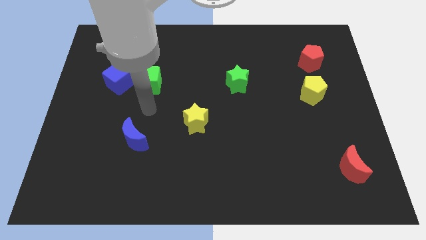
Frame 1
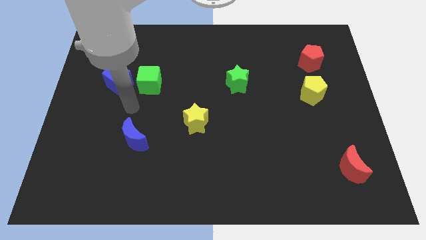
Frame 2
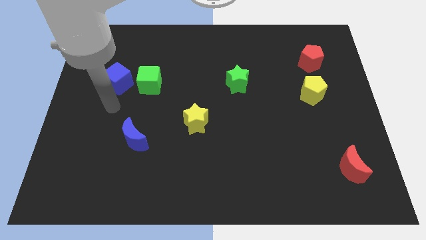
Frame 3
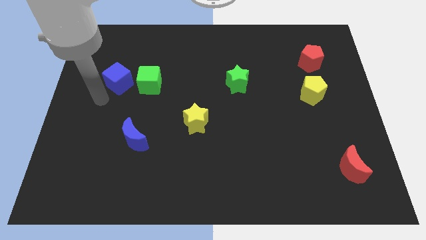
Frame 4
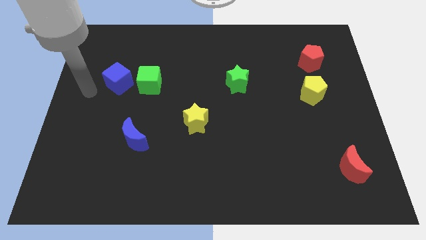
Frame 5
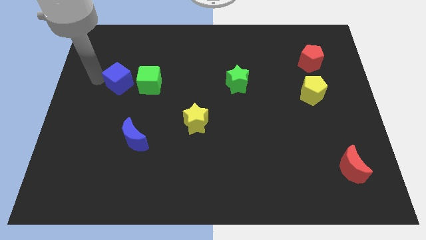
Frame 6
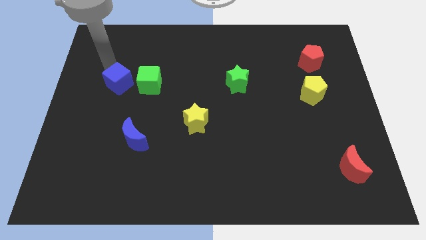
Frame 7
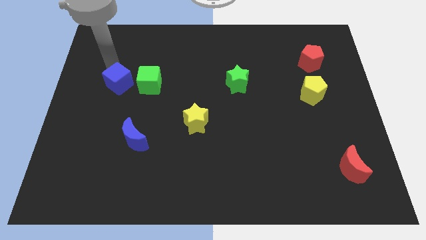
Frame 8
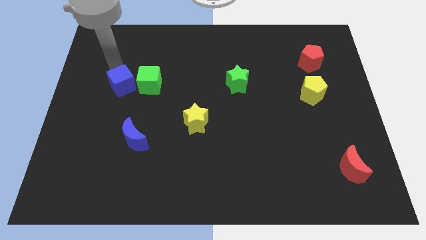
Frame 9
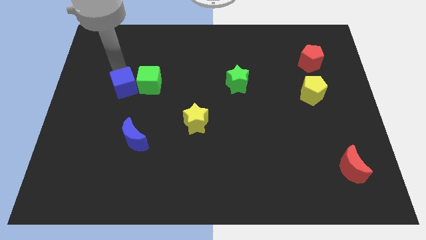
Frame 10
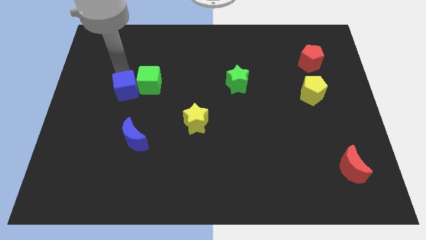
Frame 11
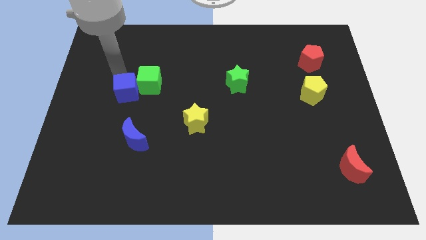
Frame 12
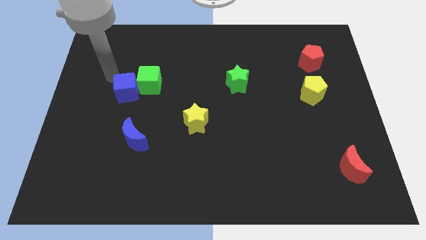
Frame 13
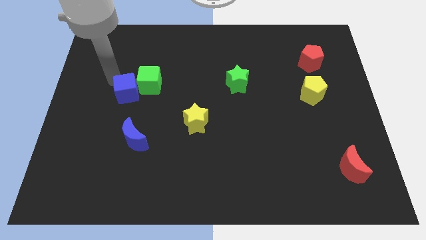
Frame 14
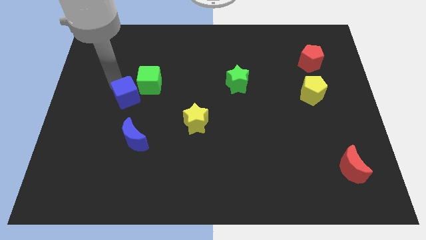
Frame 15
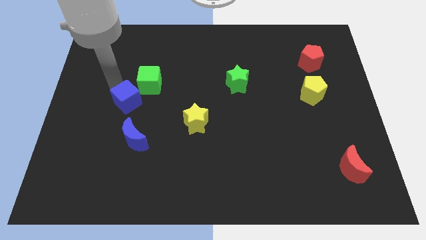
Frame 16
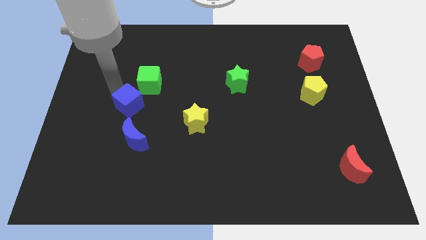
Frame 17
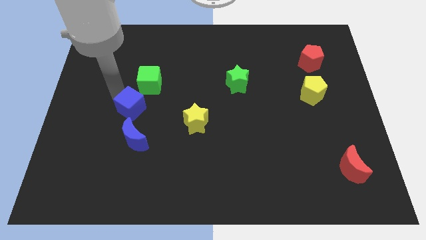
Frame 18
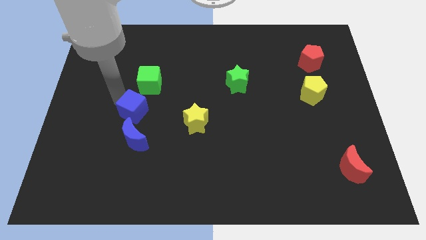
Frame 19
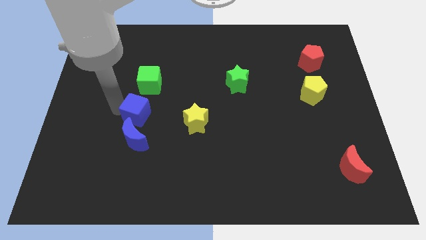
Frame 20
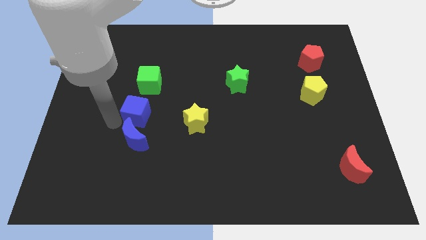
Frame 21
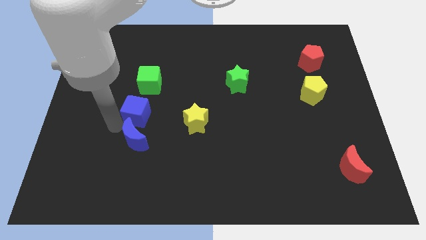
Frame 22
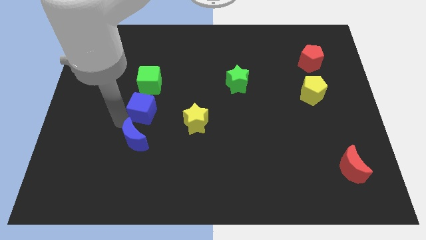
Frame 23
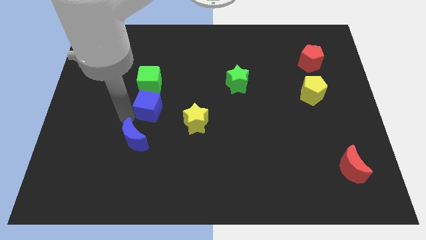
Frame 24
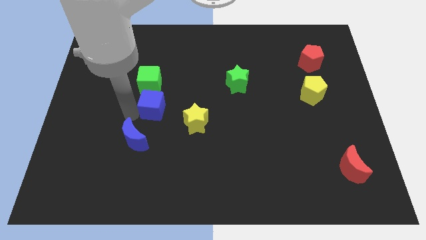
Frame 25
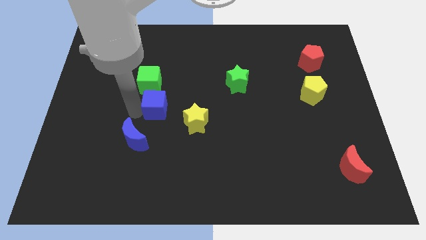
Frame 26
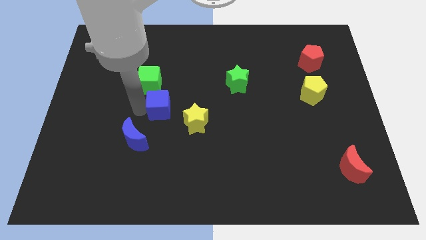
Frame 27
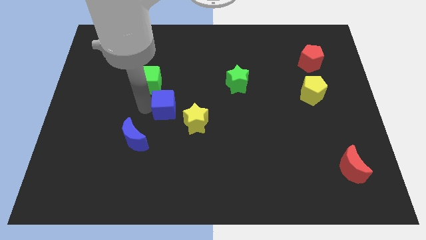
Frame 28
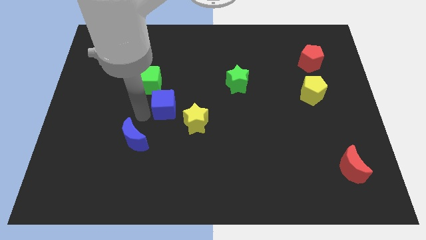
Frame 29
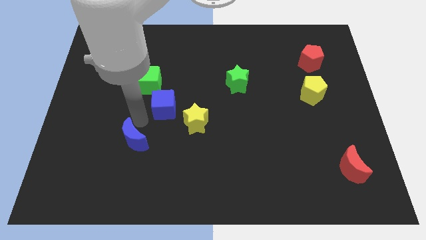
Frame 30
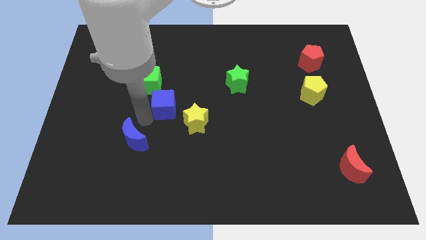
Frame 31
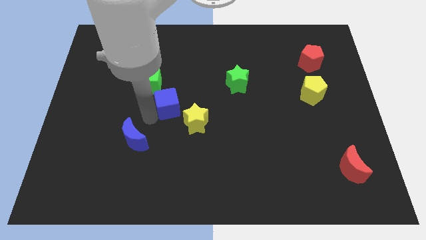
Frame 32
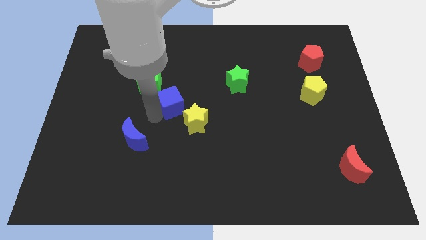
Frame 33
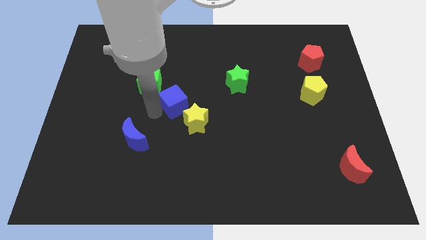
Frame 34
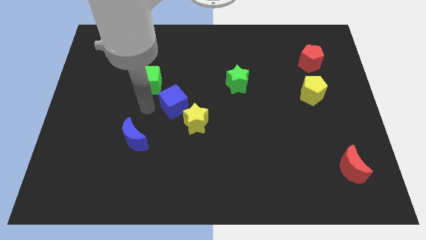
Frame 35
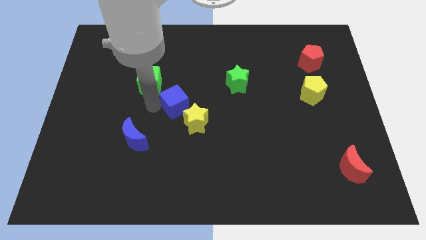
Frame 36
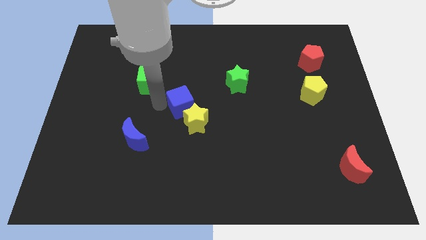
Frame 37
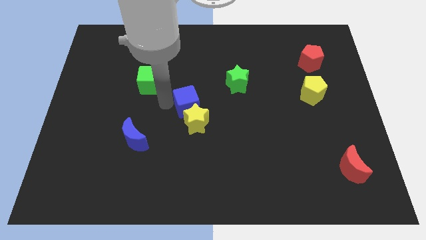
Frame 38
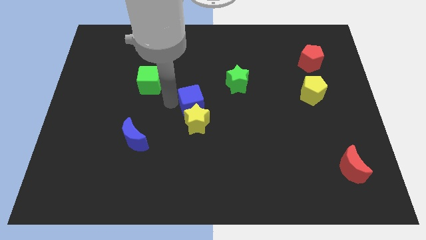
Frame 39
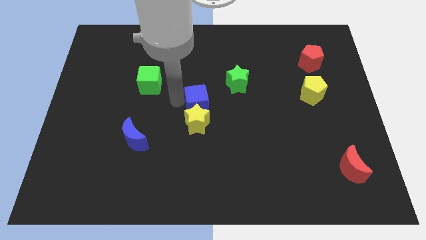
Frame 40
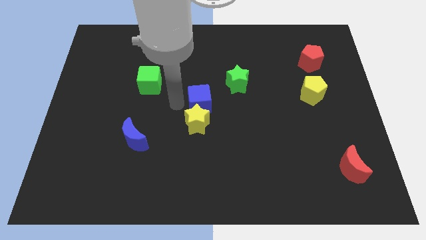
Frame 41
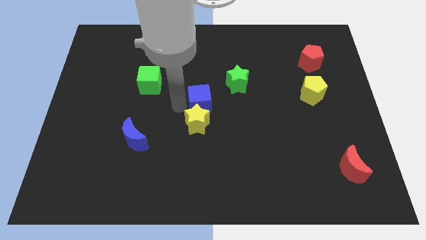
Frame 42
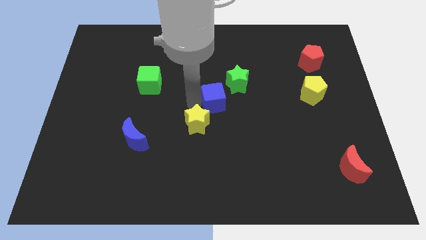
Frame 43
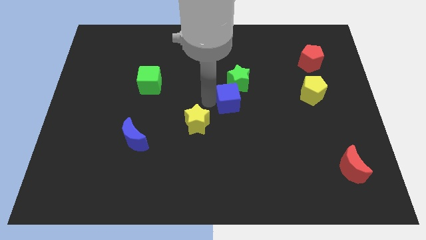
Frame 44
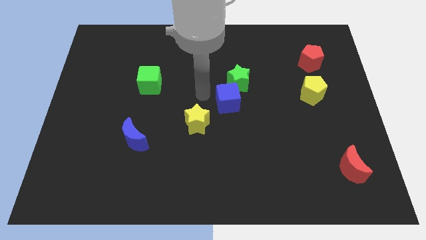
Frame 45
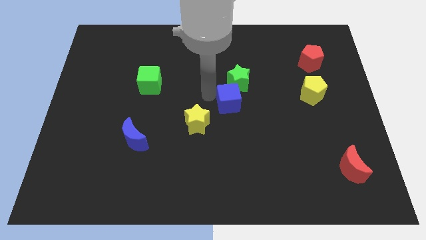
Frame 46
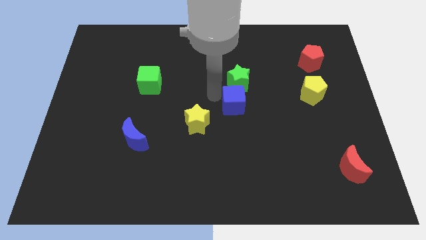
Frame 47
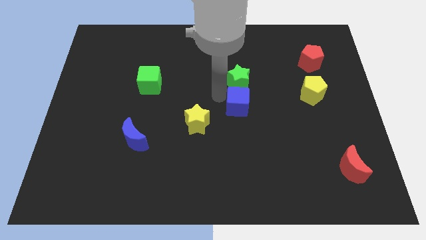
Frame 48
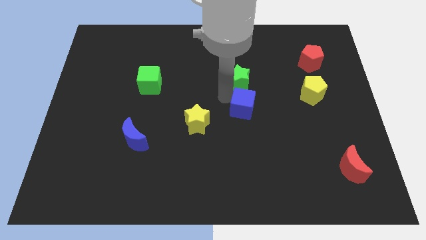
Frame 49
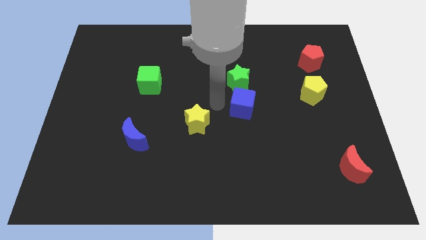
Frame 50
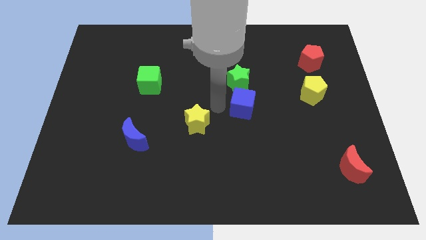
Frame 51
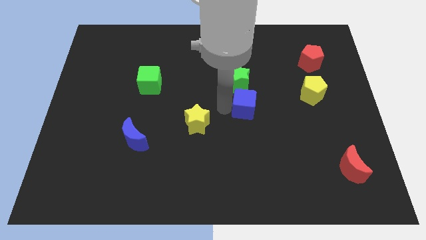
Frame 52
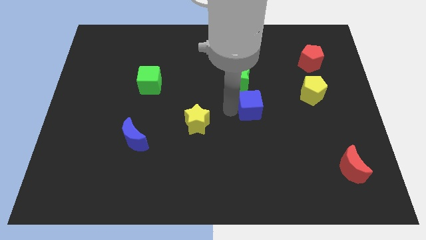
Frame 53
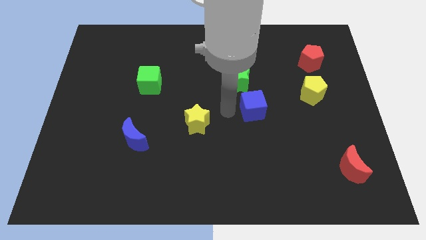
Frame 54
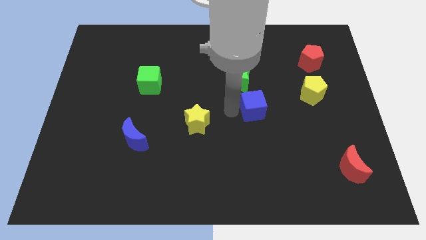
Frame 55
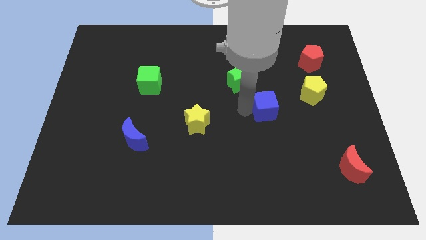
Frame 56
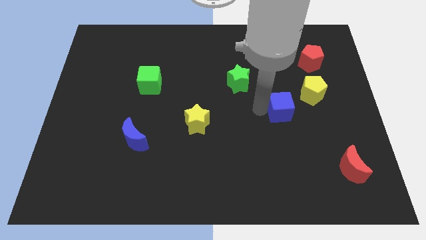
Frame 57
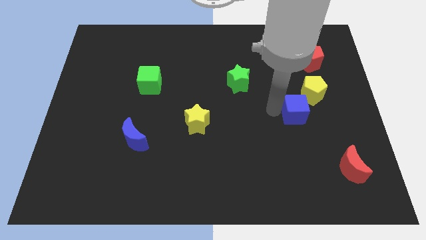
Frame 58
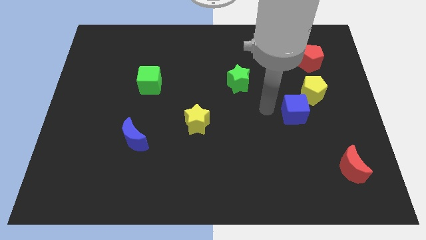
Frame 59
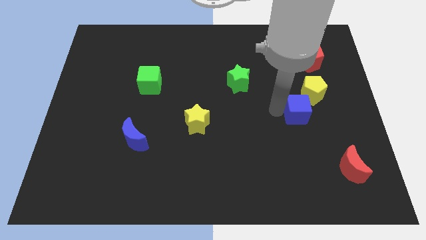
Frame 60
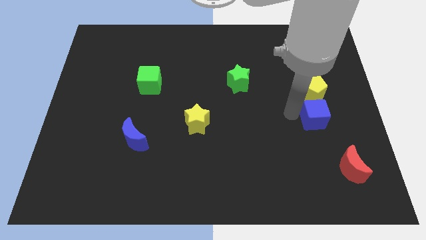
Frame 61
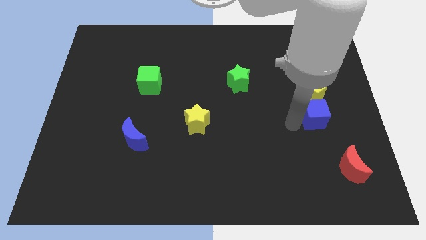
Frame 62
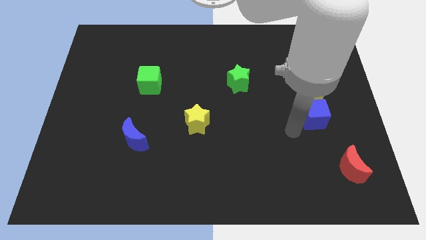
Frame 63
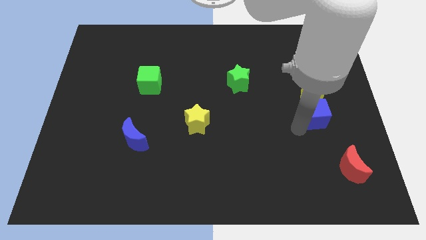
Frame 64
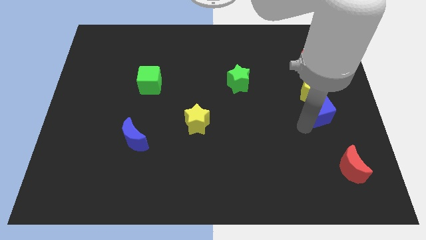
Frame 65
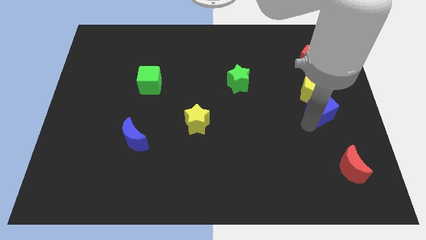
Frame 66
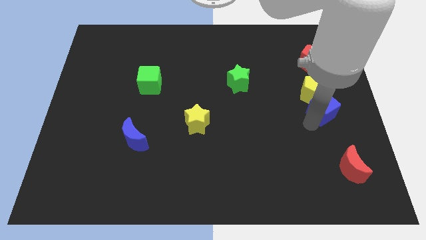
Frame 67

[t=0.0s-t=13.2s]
slide the blue cube to the center right
